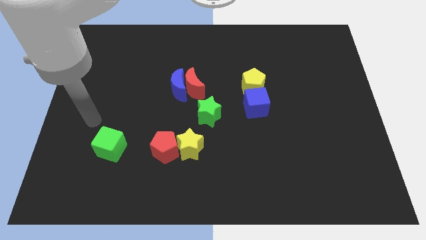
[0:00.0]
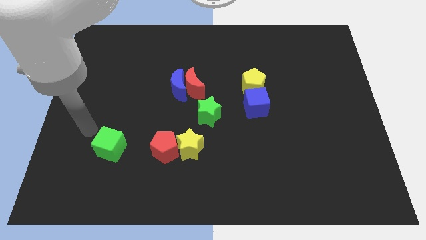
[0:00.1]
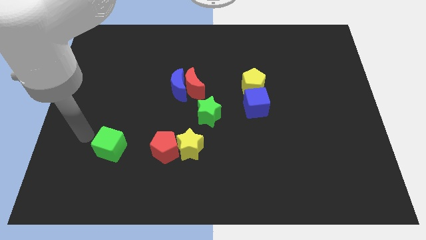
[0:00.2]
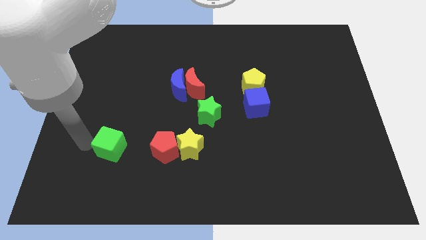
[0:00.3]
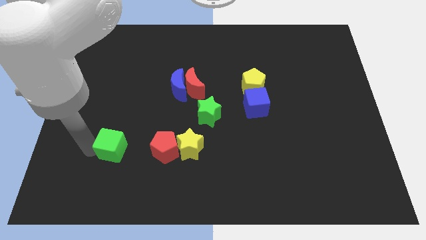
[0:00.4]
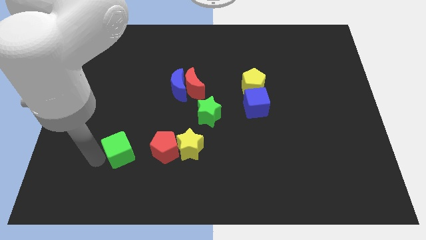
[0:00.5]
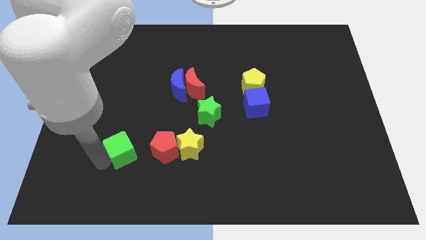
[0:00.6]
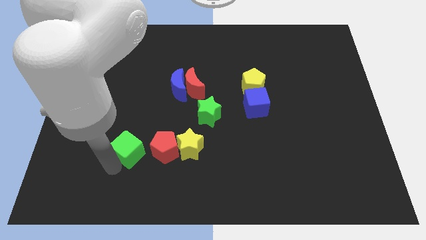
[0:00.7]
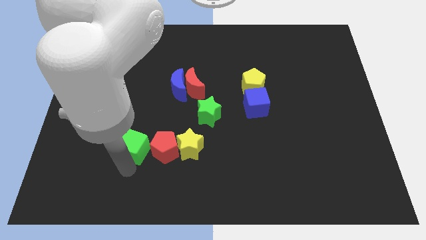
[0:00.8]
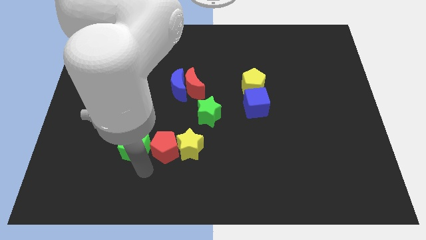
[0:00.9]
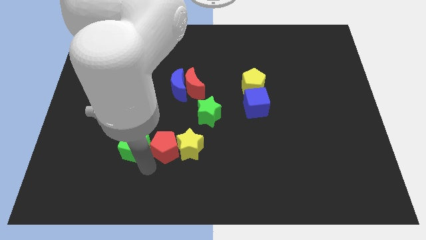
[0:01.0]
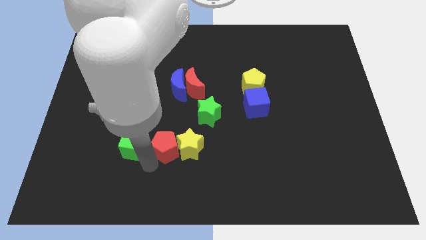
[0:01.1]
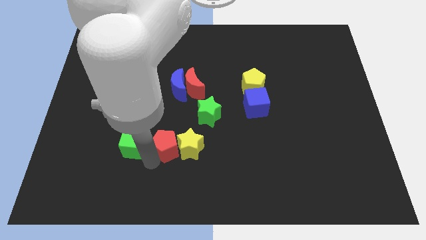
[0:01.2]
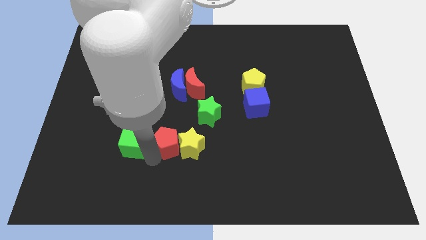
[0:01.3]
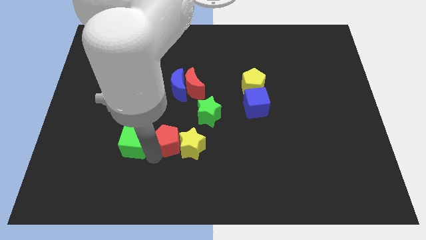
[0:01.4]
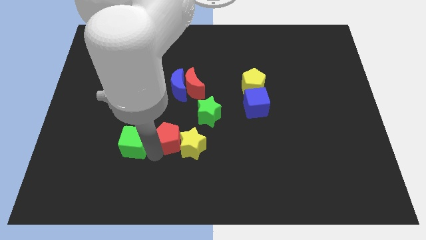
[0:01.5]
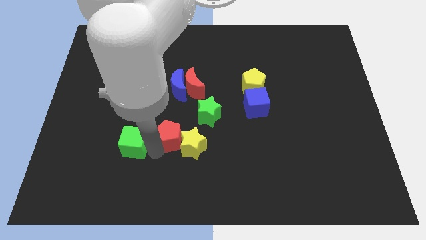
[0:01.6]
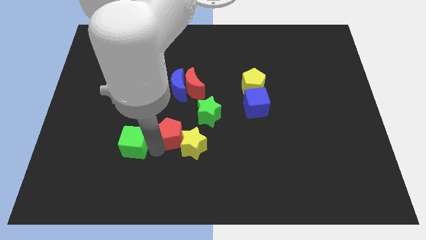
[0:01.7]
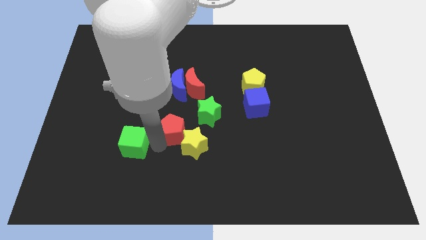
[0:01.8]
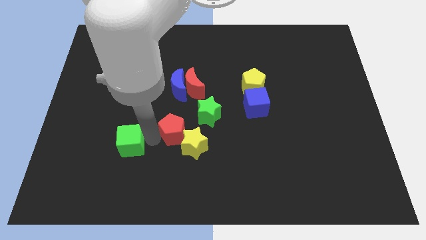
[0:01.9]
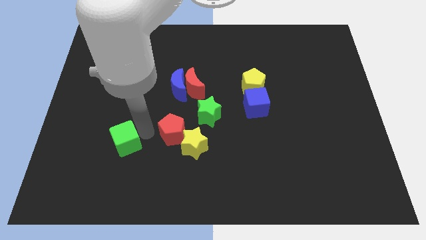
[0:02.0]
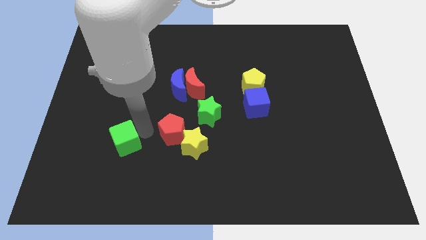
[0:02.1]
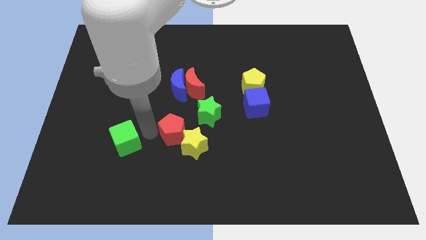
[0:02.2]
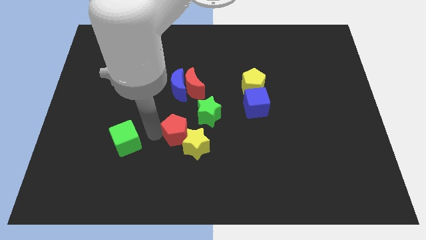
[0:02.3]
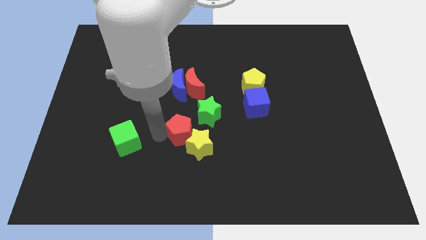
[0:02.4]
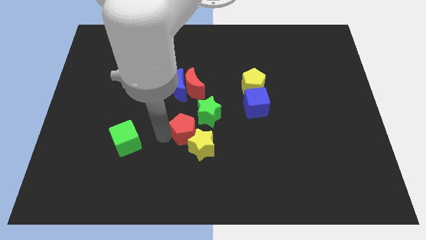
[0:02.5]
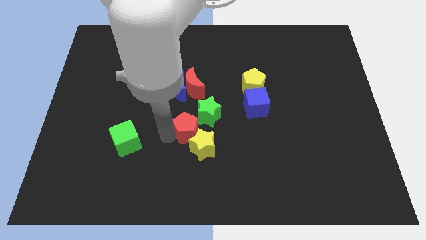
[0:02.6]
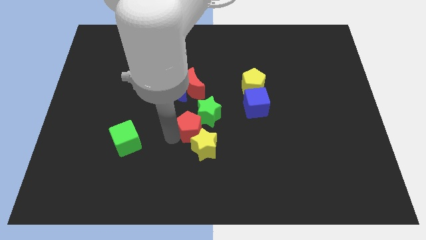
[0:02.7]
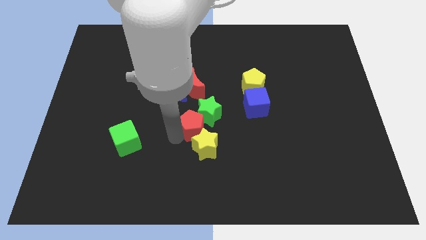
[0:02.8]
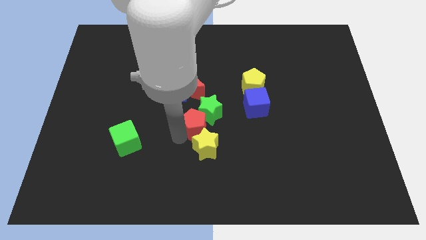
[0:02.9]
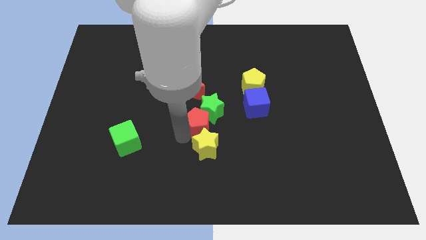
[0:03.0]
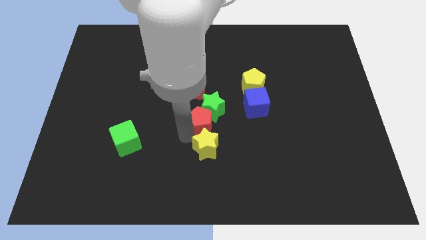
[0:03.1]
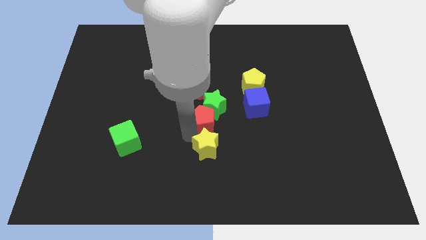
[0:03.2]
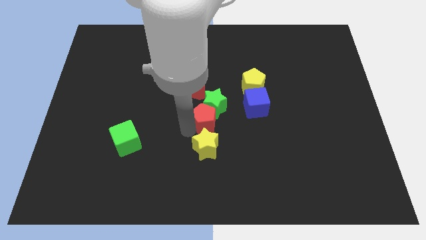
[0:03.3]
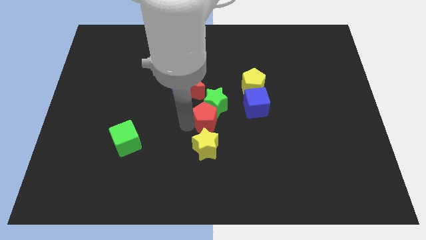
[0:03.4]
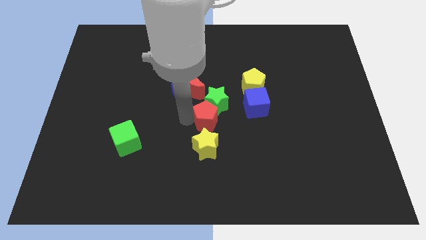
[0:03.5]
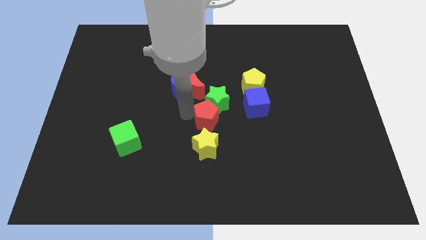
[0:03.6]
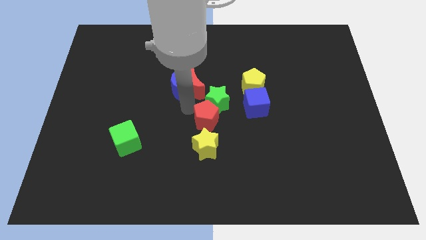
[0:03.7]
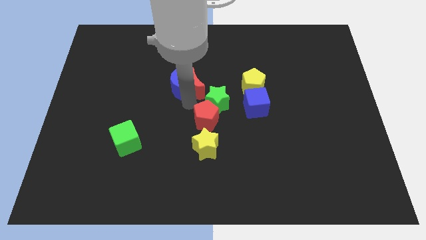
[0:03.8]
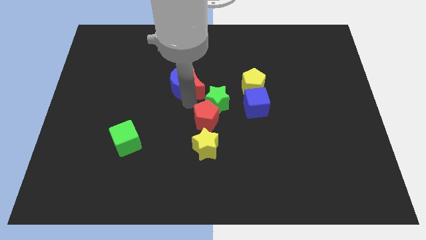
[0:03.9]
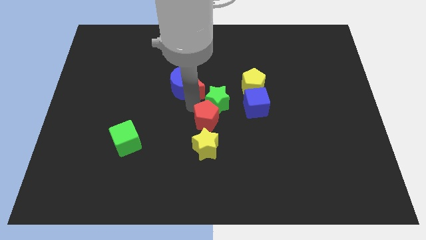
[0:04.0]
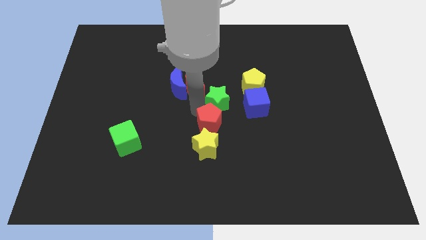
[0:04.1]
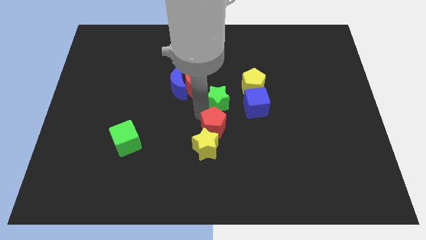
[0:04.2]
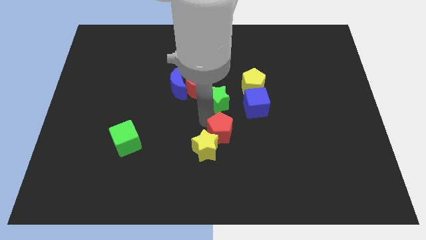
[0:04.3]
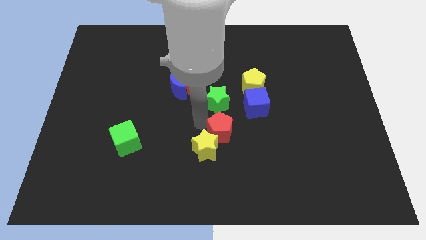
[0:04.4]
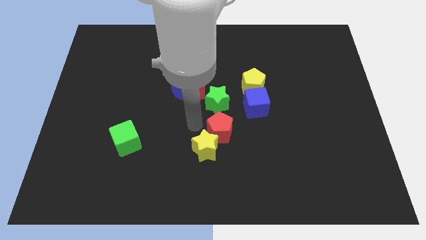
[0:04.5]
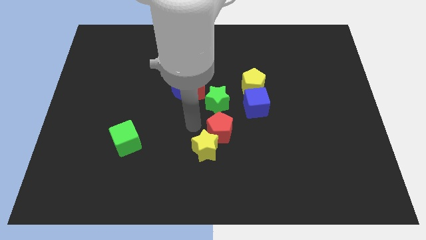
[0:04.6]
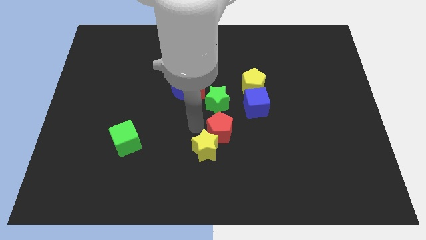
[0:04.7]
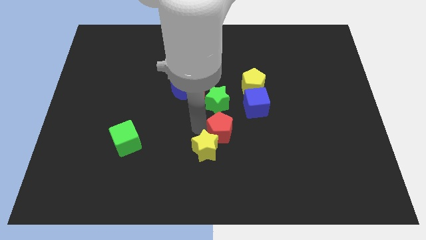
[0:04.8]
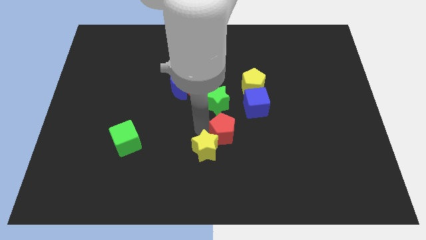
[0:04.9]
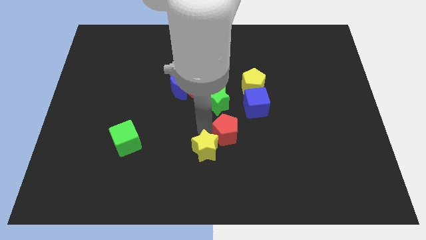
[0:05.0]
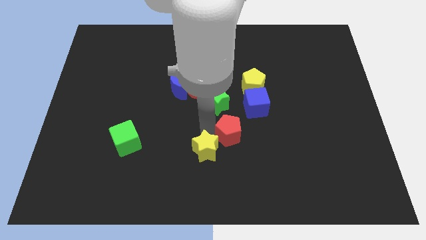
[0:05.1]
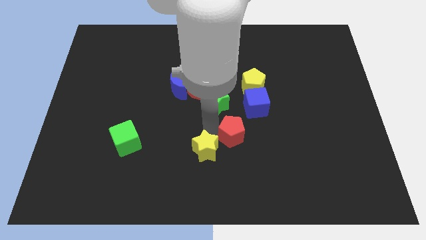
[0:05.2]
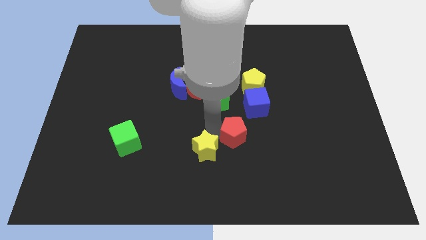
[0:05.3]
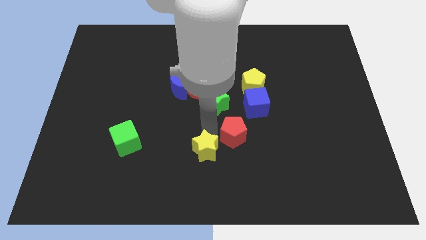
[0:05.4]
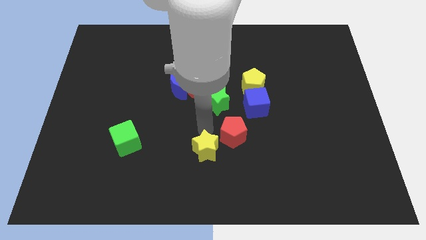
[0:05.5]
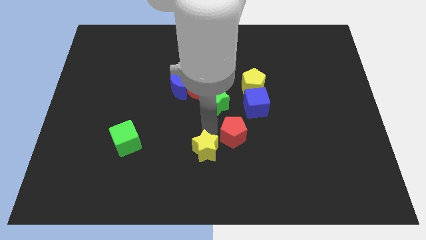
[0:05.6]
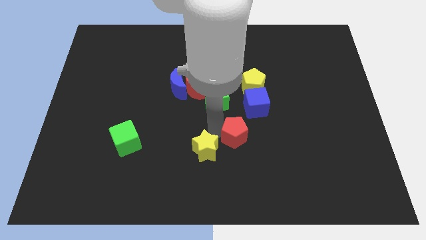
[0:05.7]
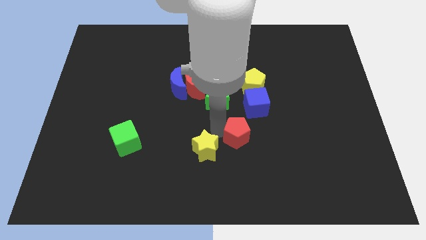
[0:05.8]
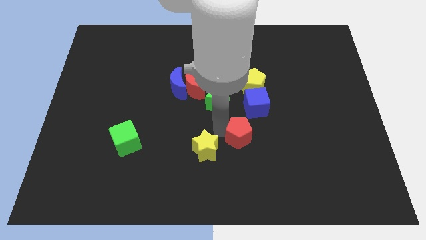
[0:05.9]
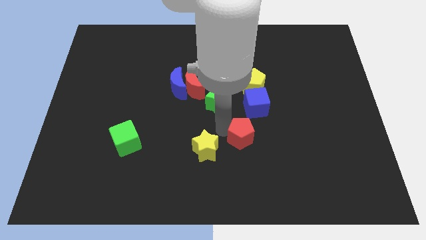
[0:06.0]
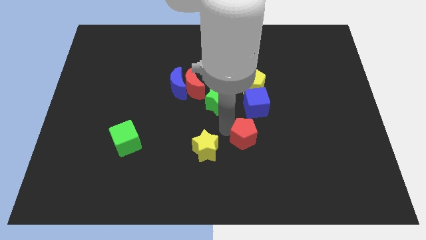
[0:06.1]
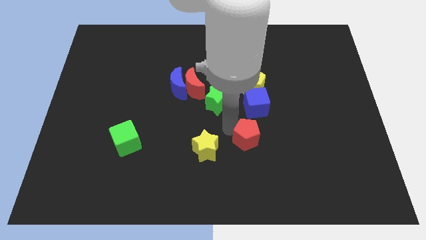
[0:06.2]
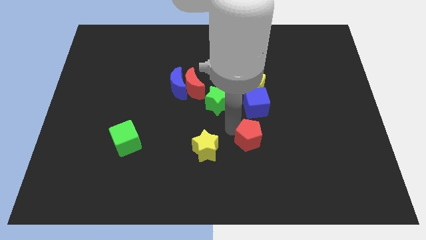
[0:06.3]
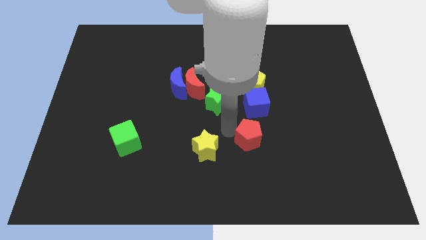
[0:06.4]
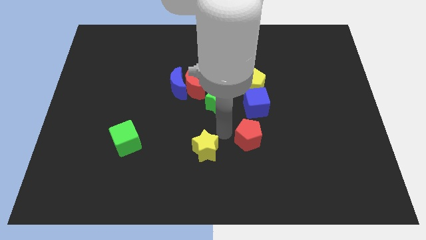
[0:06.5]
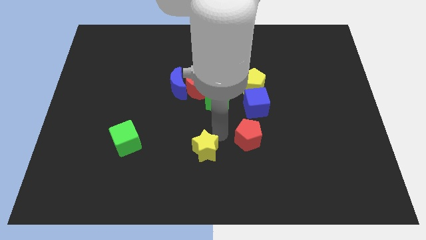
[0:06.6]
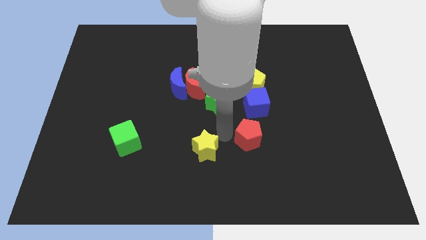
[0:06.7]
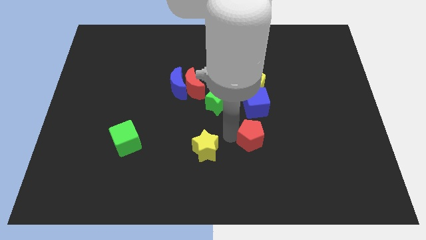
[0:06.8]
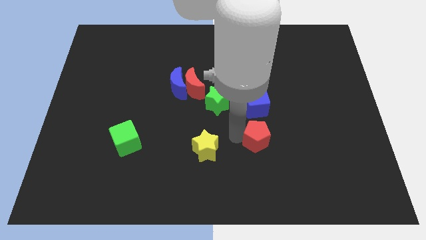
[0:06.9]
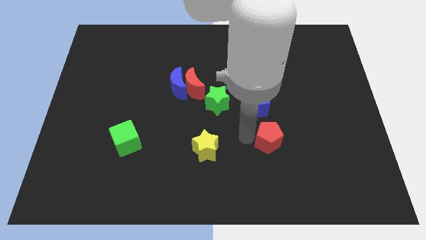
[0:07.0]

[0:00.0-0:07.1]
move the red pentagon right

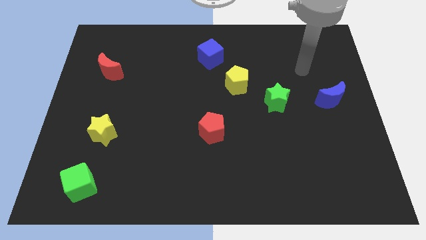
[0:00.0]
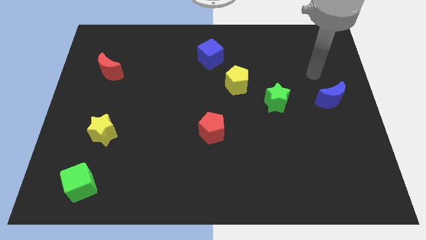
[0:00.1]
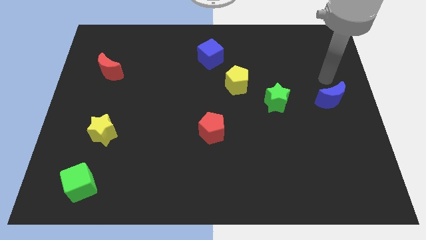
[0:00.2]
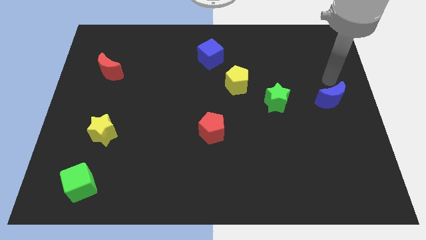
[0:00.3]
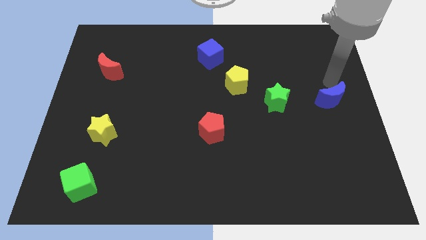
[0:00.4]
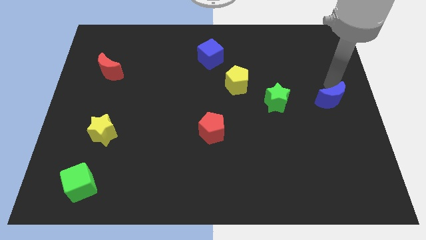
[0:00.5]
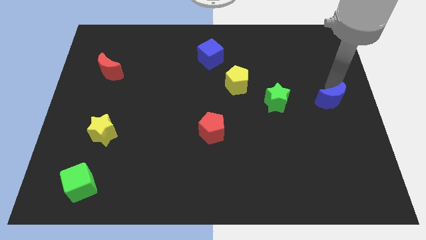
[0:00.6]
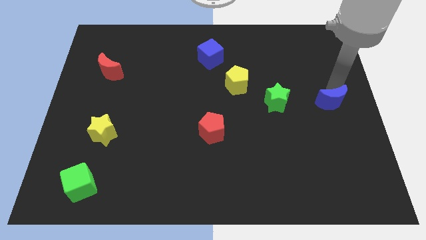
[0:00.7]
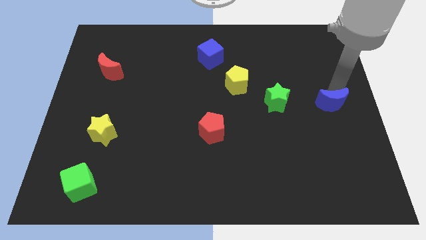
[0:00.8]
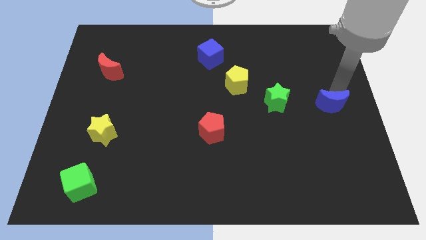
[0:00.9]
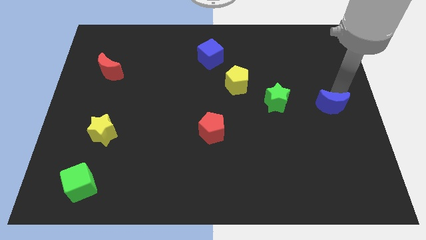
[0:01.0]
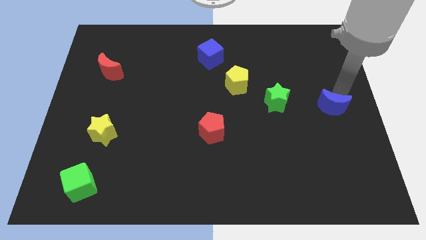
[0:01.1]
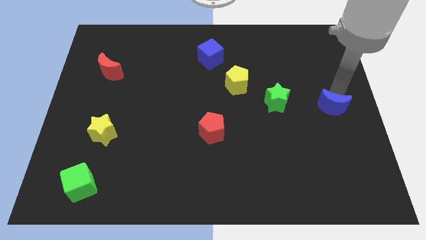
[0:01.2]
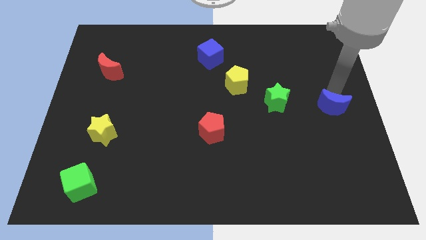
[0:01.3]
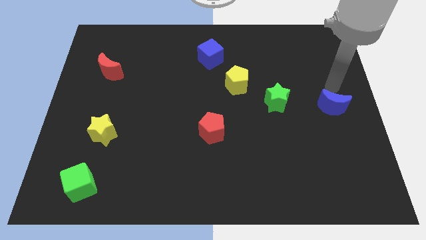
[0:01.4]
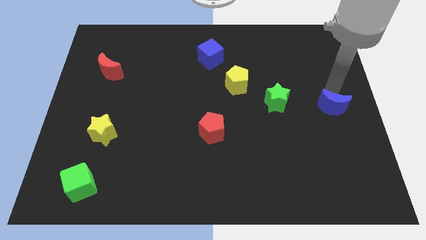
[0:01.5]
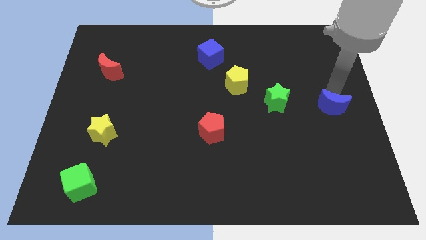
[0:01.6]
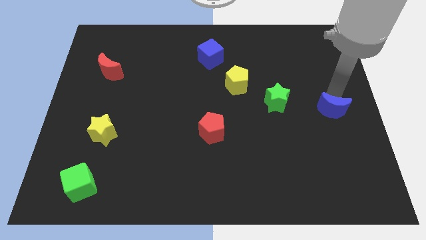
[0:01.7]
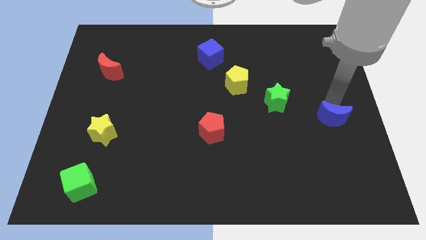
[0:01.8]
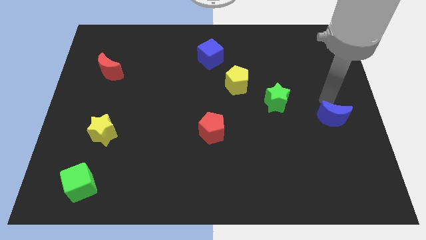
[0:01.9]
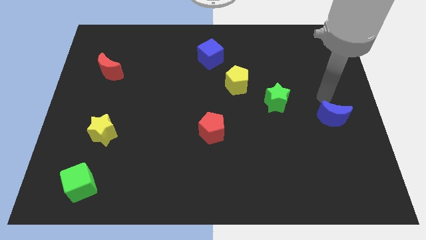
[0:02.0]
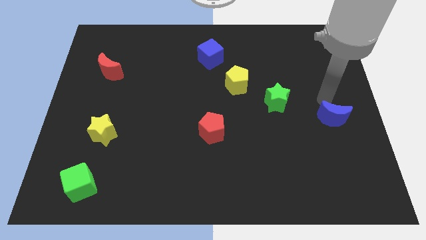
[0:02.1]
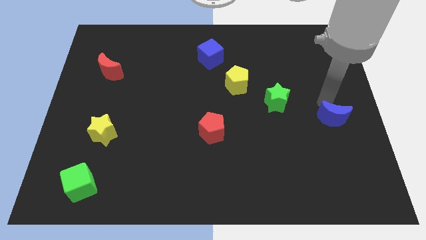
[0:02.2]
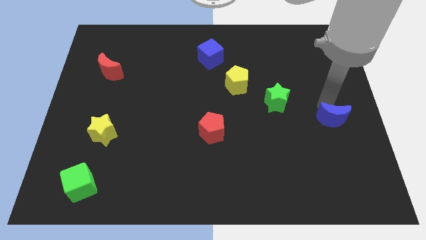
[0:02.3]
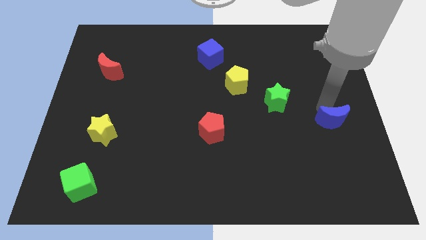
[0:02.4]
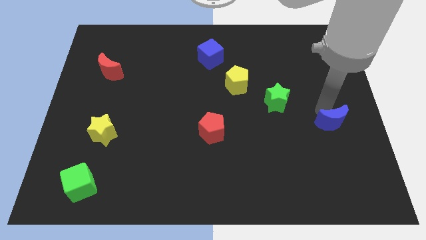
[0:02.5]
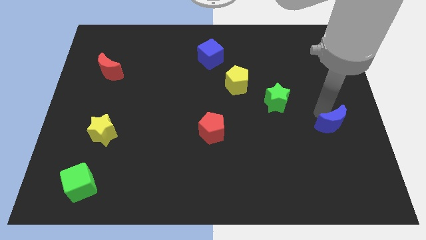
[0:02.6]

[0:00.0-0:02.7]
slightly slide the blue moon downwards
